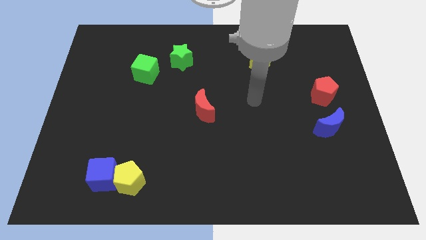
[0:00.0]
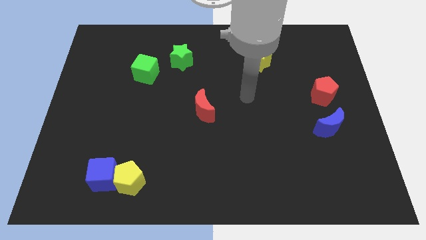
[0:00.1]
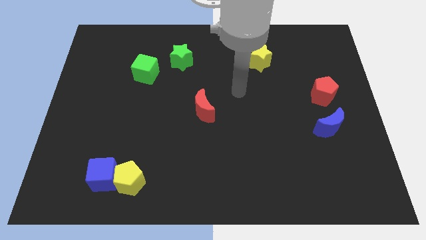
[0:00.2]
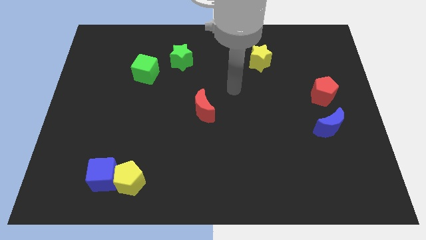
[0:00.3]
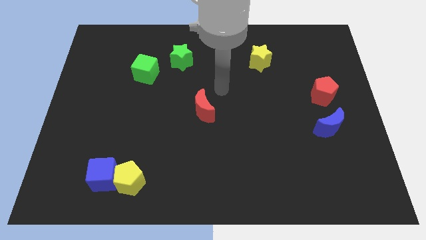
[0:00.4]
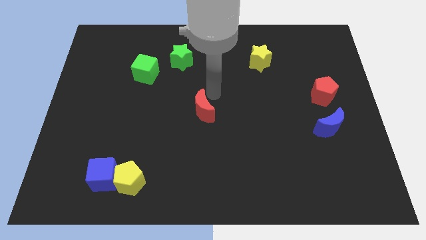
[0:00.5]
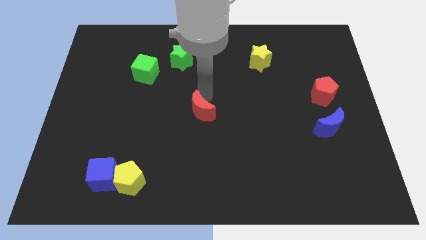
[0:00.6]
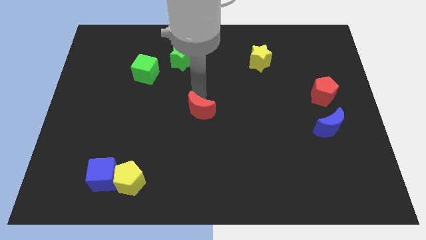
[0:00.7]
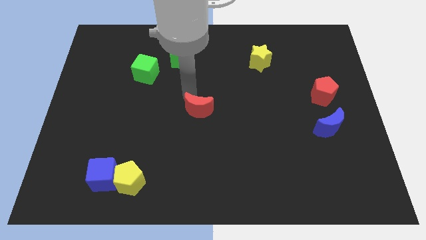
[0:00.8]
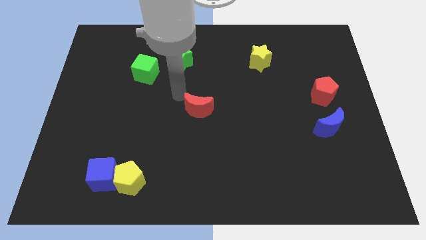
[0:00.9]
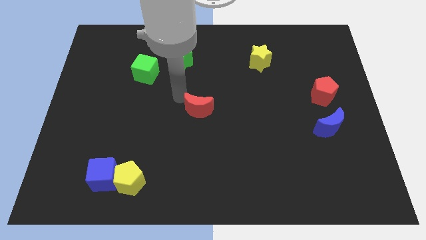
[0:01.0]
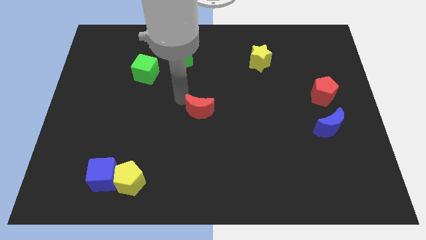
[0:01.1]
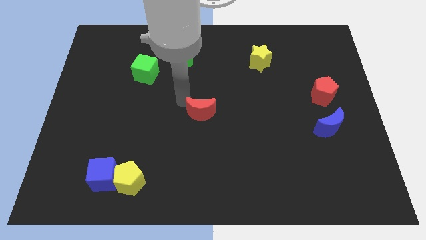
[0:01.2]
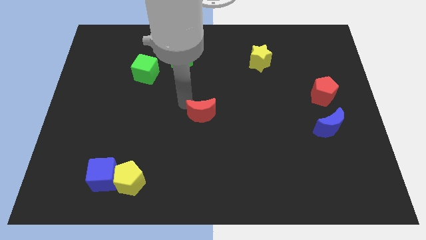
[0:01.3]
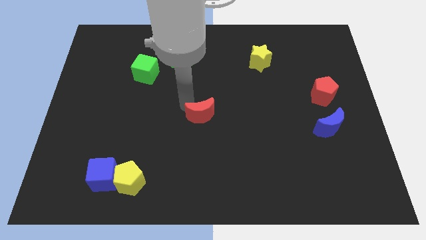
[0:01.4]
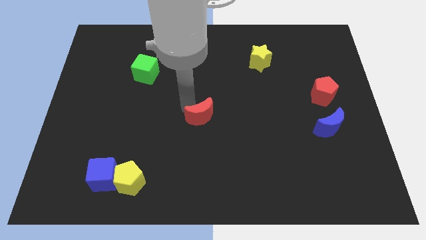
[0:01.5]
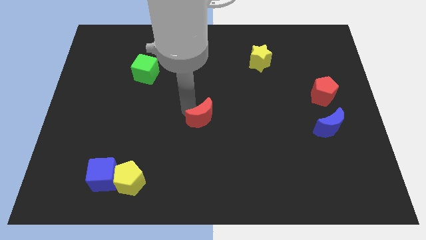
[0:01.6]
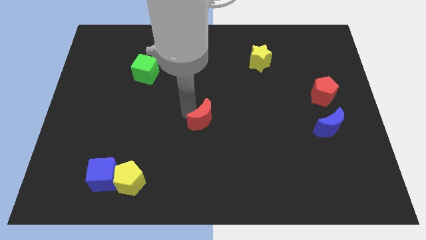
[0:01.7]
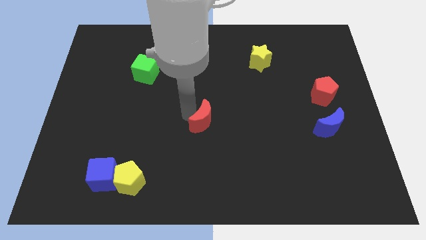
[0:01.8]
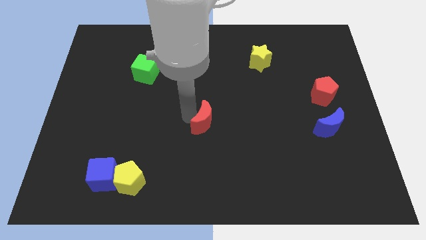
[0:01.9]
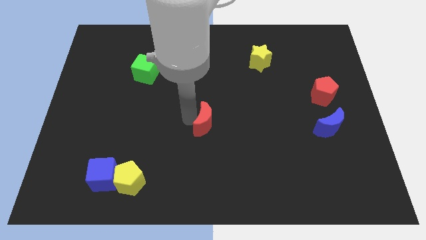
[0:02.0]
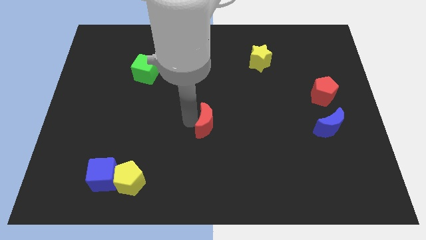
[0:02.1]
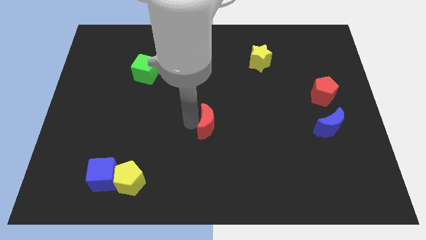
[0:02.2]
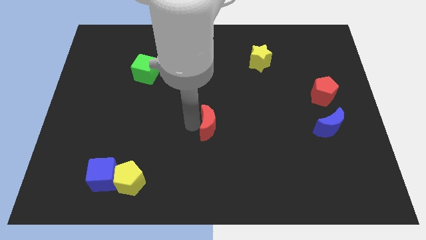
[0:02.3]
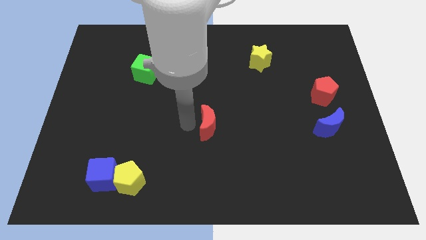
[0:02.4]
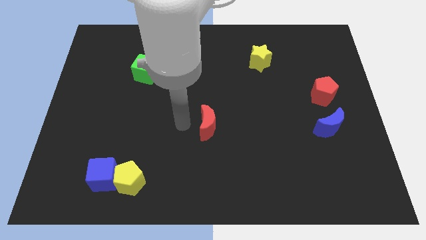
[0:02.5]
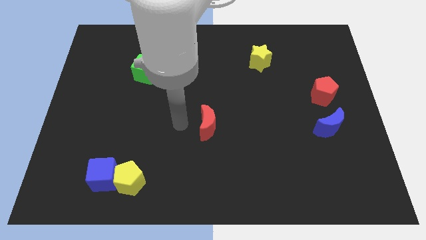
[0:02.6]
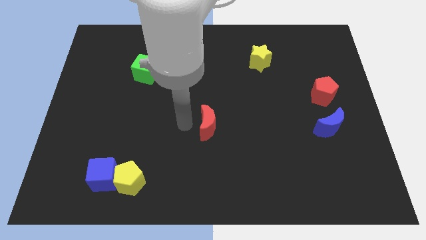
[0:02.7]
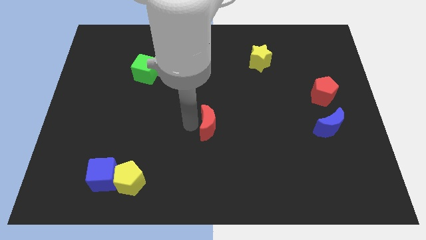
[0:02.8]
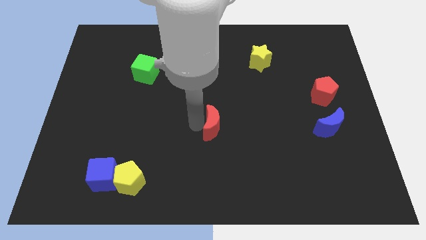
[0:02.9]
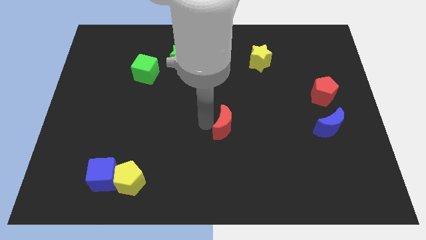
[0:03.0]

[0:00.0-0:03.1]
push the red moon downwards and then right a little

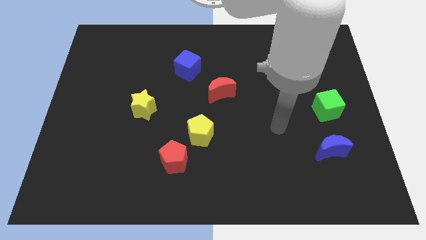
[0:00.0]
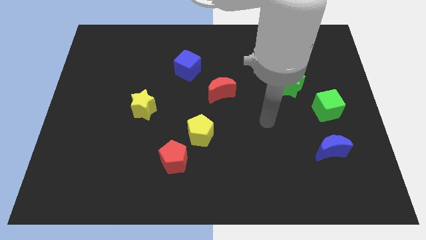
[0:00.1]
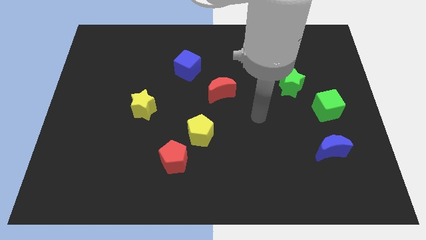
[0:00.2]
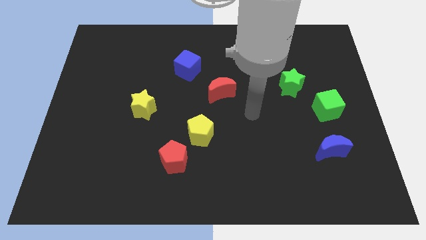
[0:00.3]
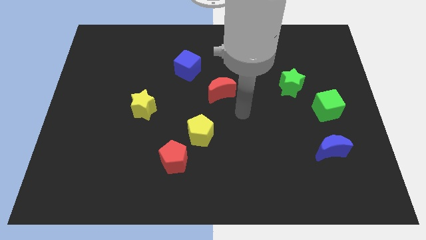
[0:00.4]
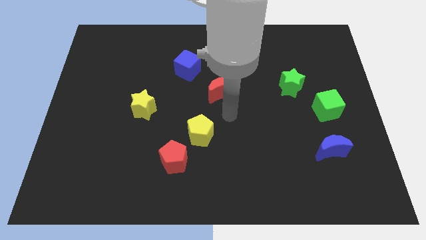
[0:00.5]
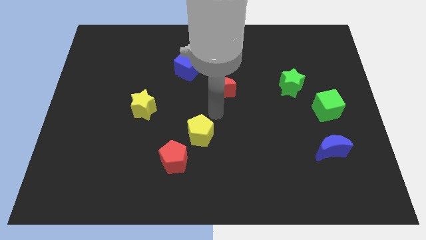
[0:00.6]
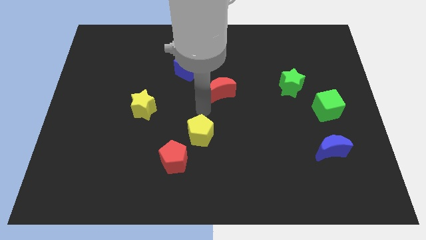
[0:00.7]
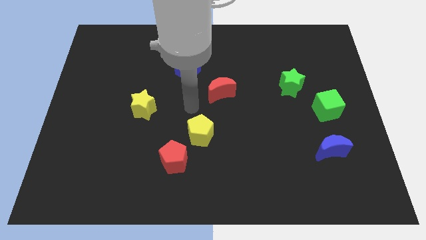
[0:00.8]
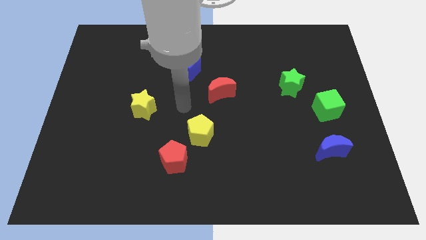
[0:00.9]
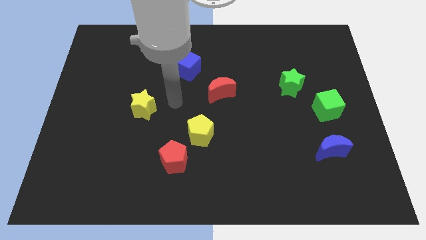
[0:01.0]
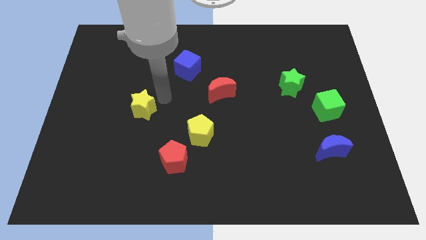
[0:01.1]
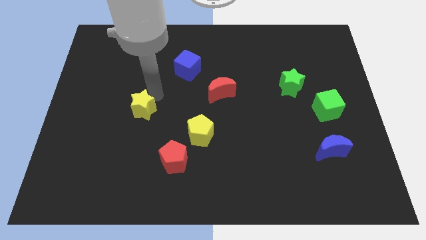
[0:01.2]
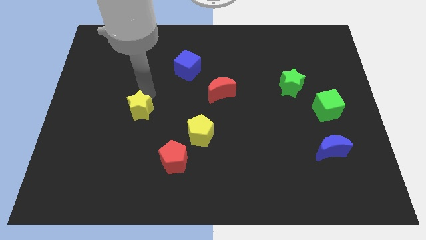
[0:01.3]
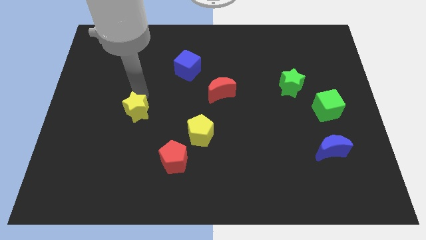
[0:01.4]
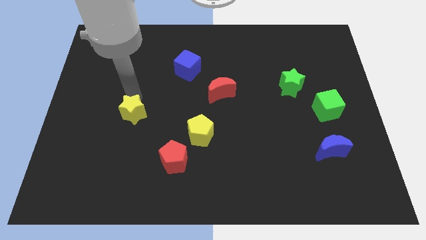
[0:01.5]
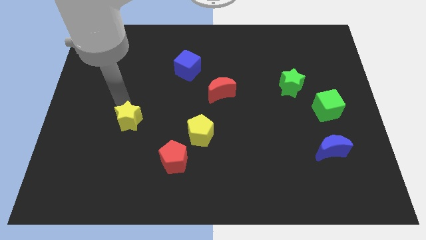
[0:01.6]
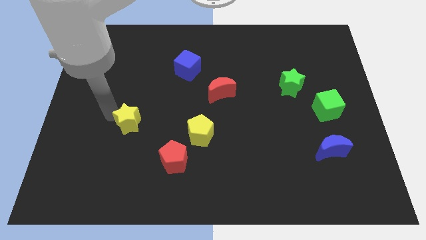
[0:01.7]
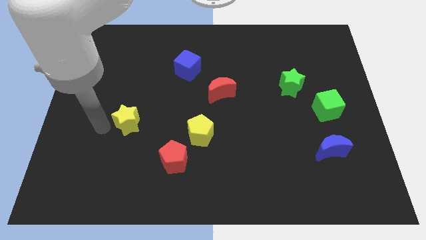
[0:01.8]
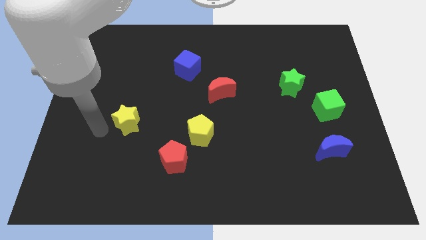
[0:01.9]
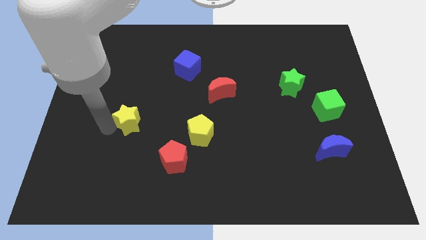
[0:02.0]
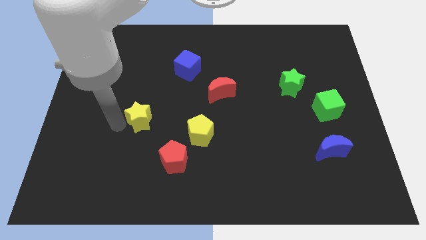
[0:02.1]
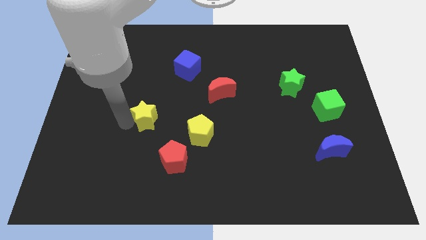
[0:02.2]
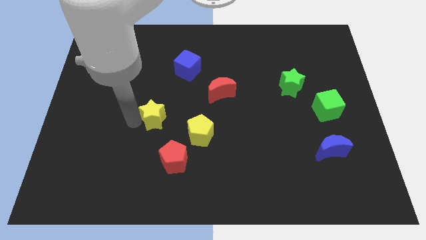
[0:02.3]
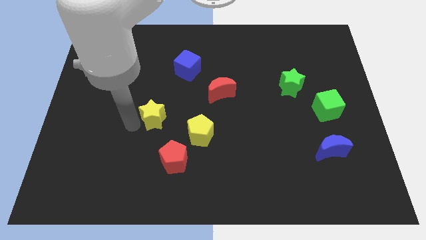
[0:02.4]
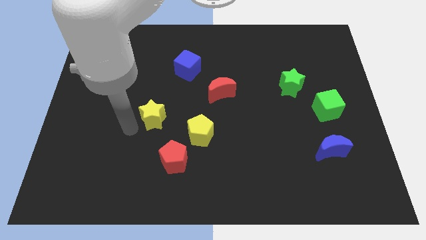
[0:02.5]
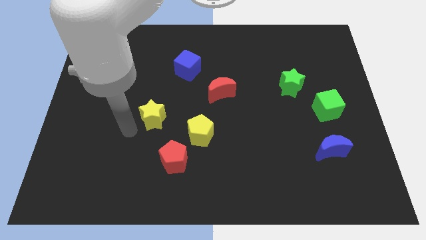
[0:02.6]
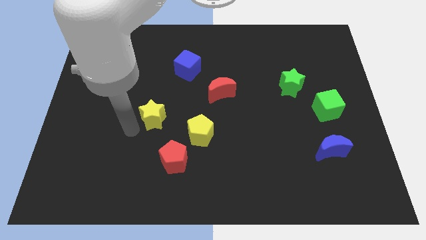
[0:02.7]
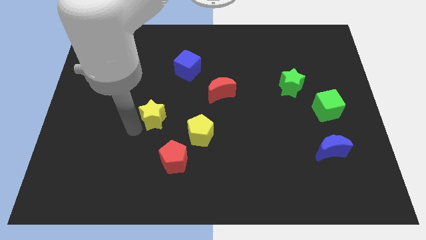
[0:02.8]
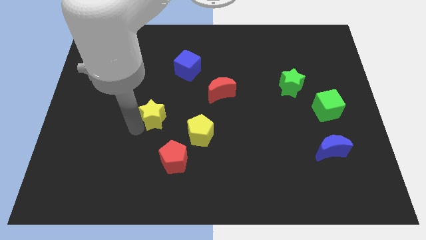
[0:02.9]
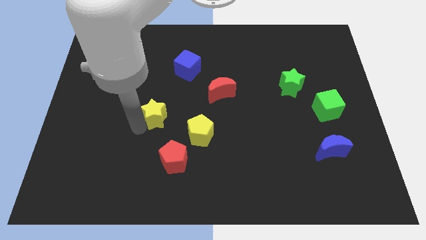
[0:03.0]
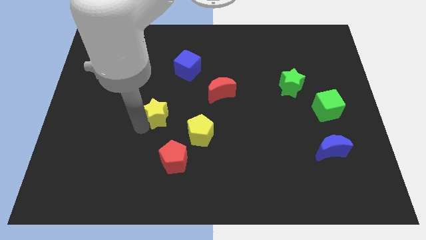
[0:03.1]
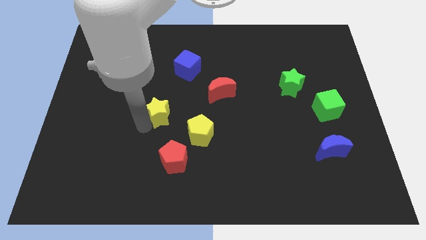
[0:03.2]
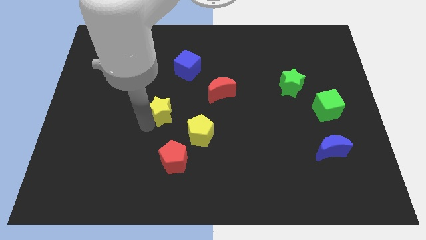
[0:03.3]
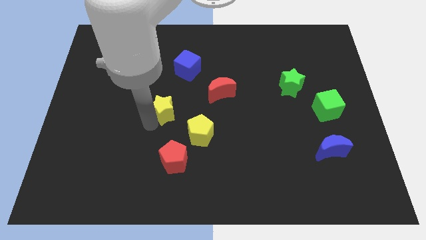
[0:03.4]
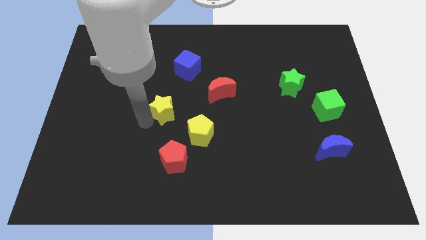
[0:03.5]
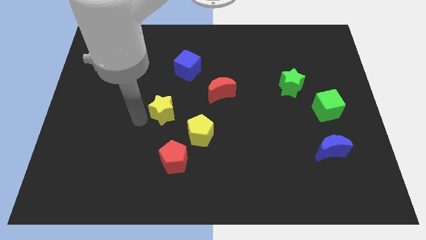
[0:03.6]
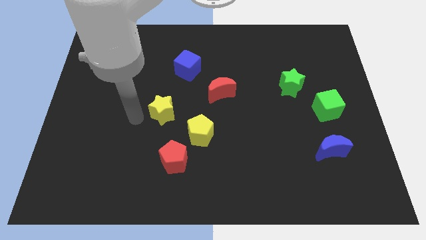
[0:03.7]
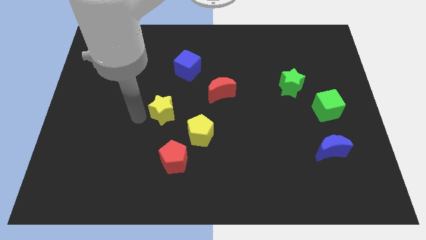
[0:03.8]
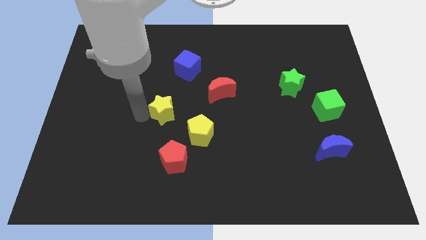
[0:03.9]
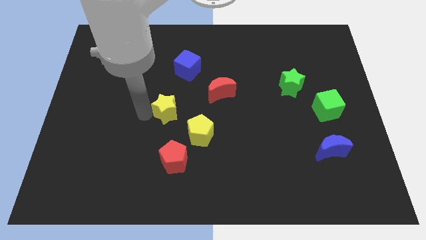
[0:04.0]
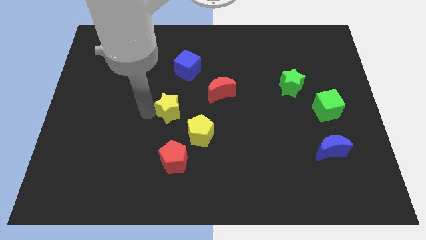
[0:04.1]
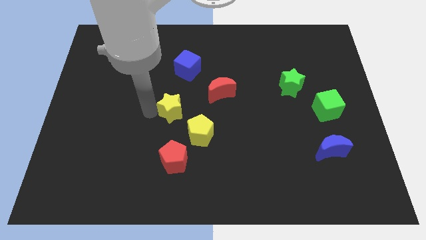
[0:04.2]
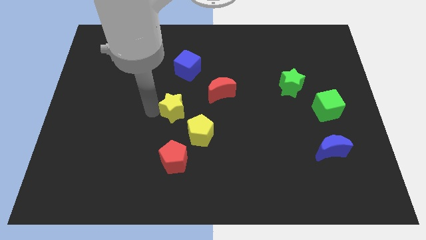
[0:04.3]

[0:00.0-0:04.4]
slightly push the yellow star to the right

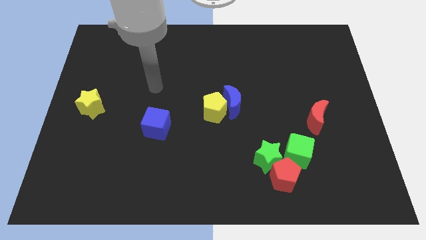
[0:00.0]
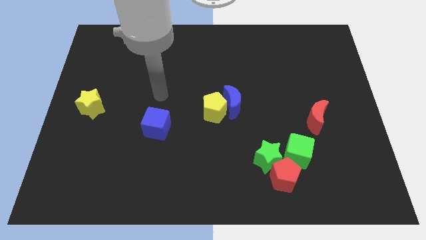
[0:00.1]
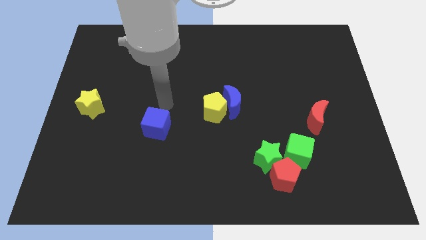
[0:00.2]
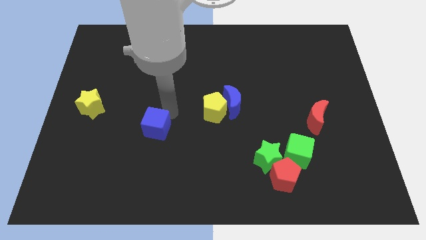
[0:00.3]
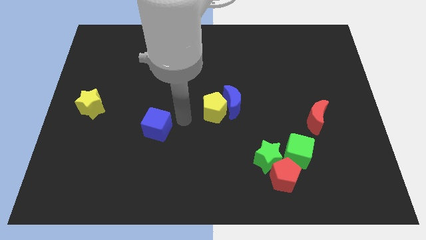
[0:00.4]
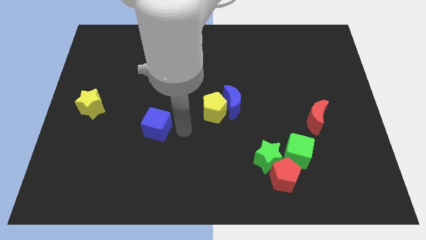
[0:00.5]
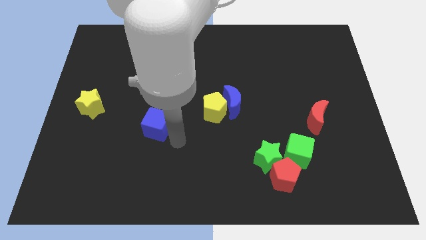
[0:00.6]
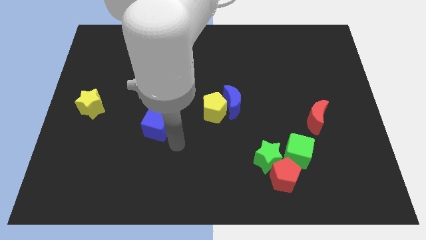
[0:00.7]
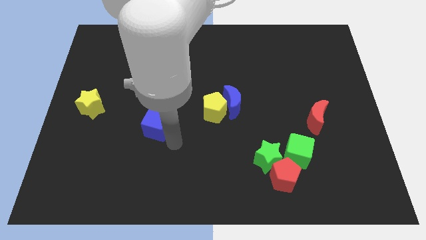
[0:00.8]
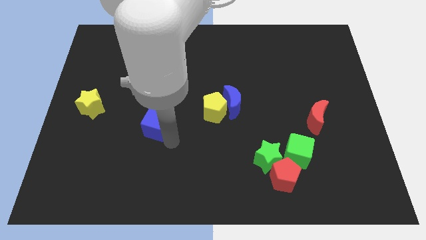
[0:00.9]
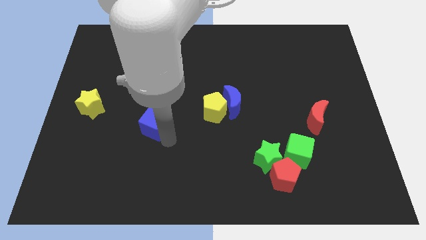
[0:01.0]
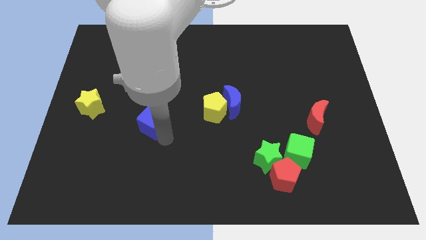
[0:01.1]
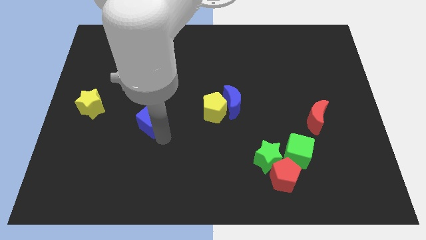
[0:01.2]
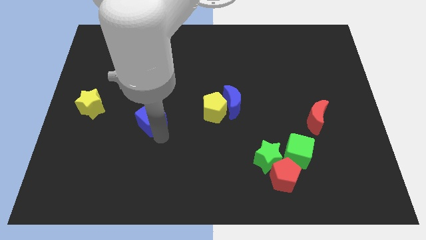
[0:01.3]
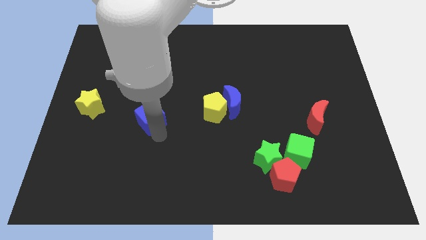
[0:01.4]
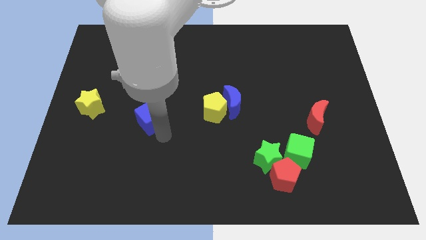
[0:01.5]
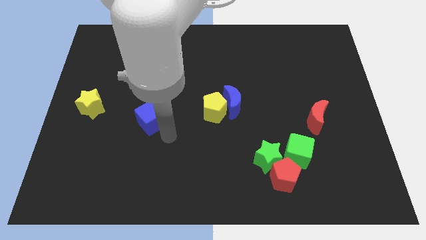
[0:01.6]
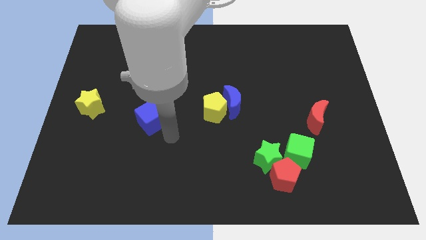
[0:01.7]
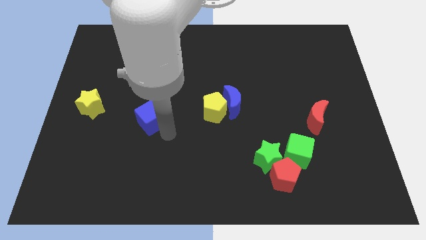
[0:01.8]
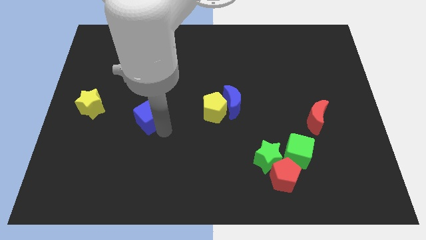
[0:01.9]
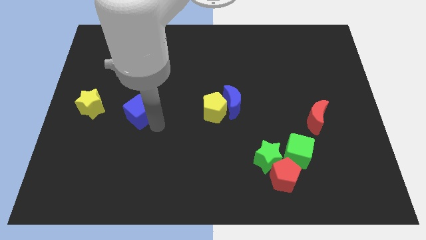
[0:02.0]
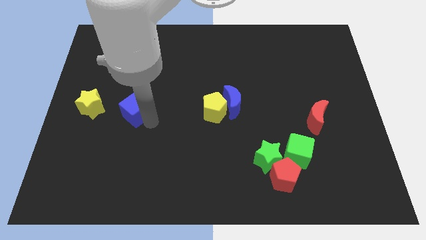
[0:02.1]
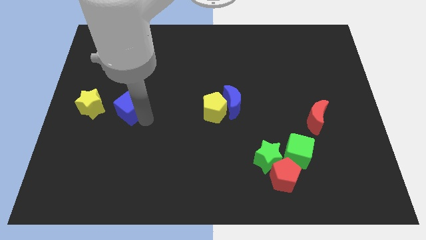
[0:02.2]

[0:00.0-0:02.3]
slightly move the blue cube upwards and left diagonally
